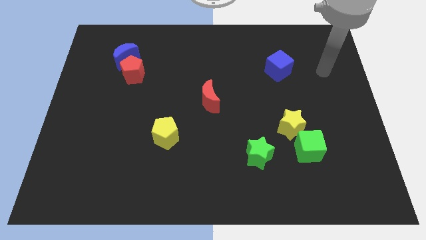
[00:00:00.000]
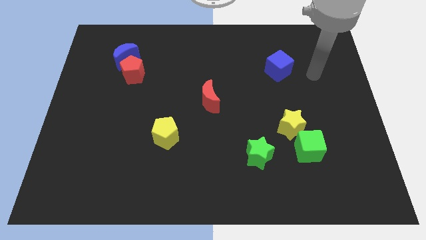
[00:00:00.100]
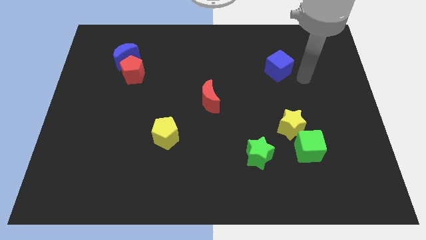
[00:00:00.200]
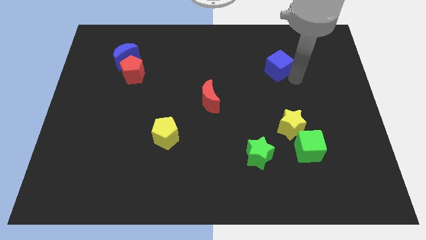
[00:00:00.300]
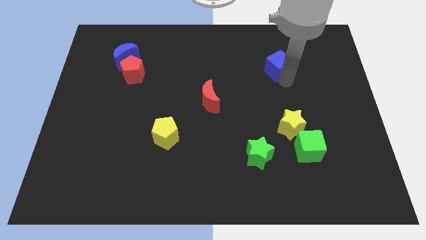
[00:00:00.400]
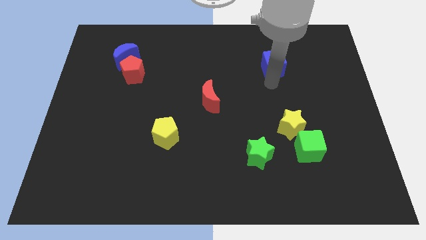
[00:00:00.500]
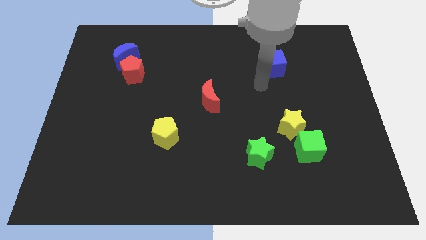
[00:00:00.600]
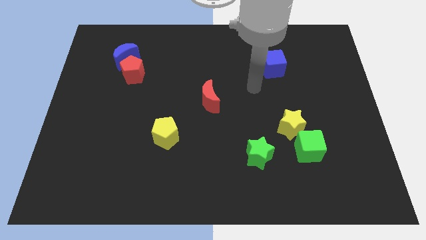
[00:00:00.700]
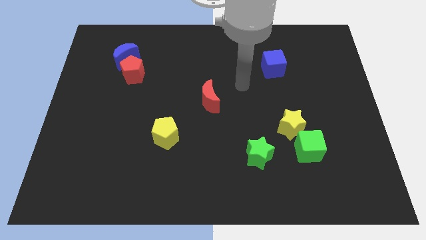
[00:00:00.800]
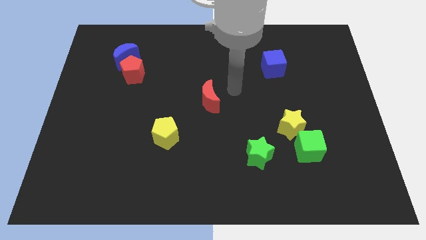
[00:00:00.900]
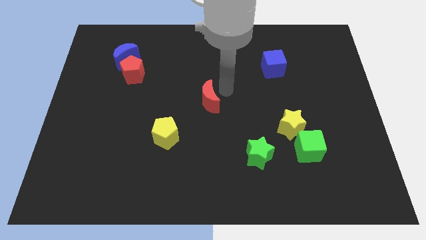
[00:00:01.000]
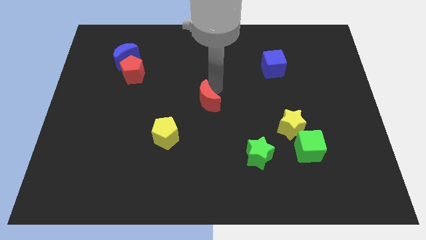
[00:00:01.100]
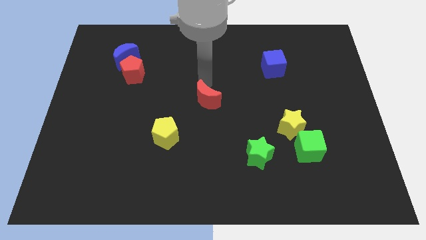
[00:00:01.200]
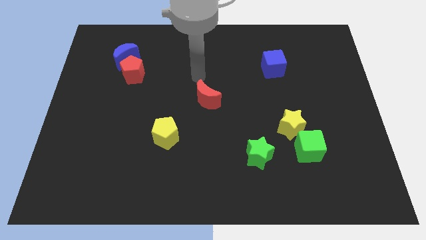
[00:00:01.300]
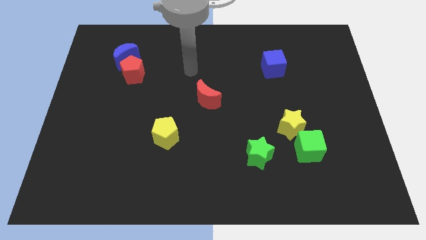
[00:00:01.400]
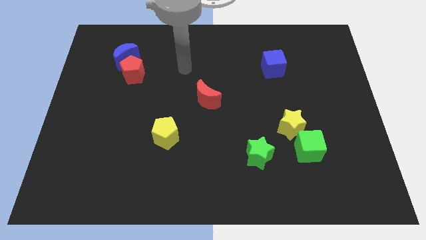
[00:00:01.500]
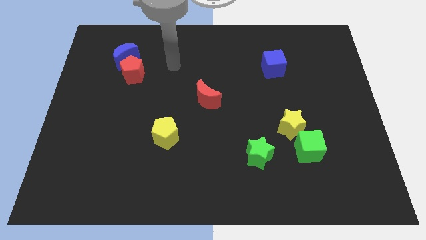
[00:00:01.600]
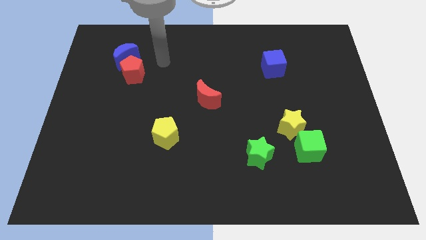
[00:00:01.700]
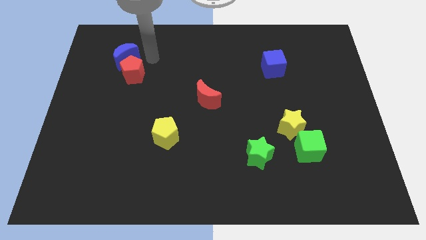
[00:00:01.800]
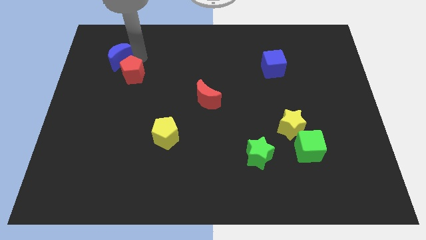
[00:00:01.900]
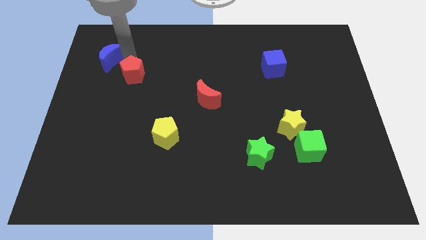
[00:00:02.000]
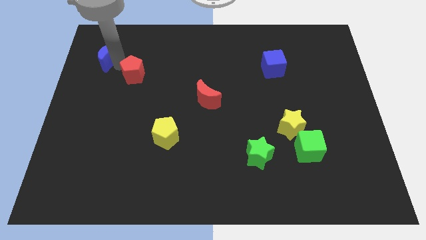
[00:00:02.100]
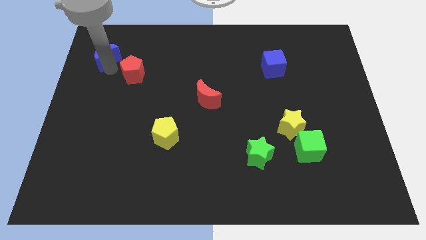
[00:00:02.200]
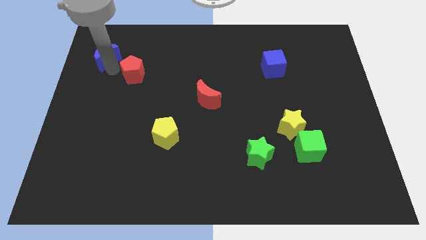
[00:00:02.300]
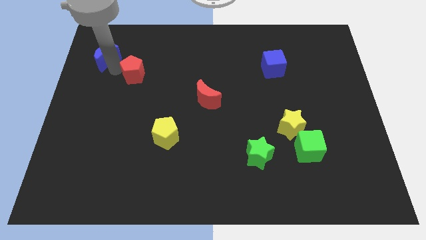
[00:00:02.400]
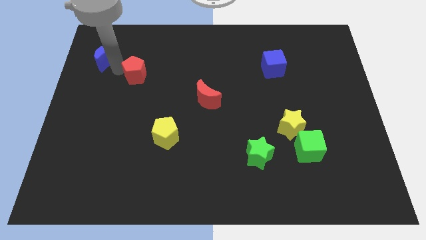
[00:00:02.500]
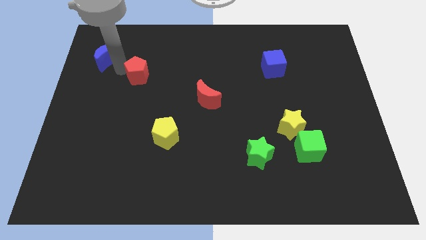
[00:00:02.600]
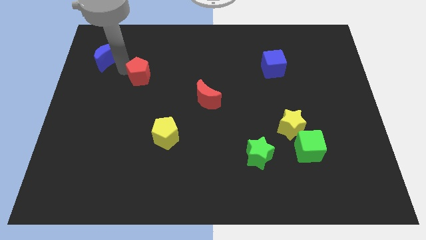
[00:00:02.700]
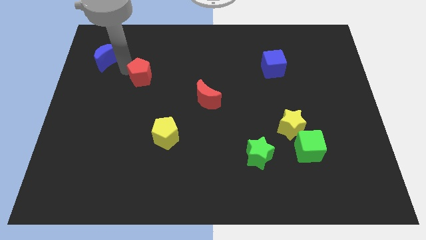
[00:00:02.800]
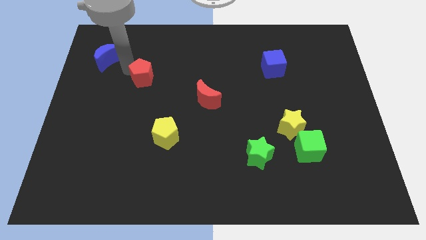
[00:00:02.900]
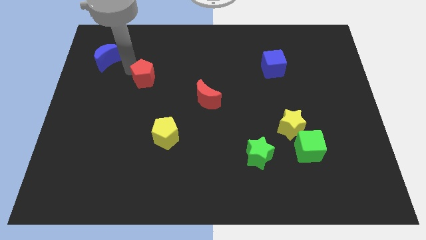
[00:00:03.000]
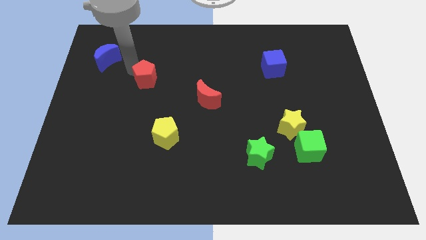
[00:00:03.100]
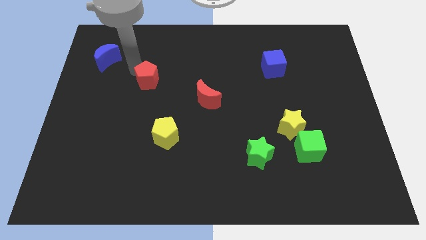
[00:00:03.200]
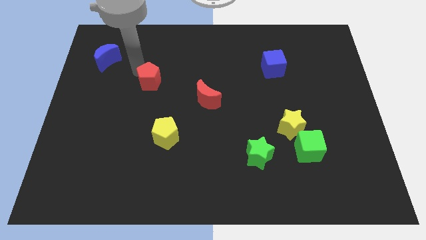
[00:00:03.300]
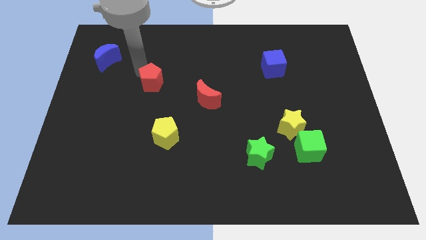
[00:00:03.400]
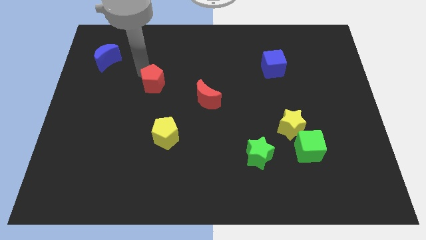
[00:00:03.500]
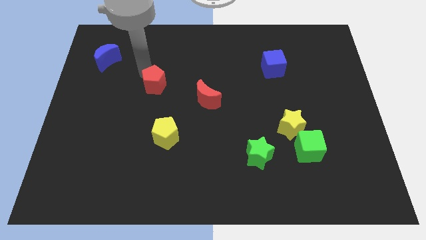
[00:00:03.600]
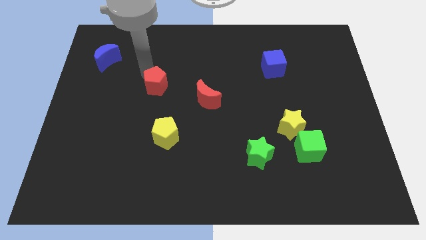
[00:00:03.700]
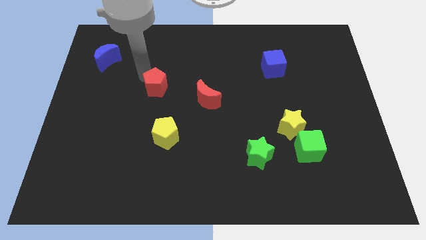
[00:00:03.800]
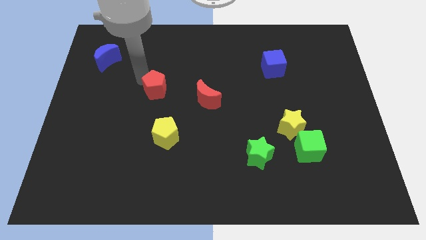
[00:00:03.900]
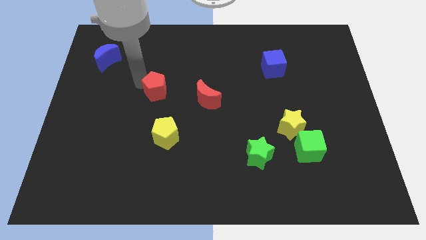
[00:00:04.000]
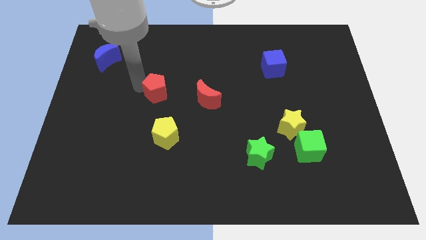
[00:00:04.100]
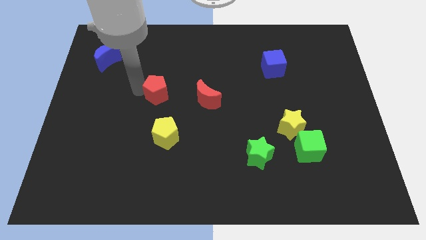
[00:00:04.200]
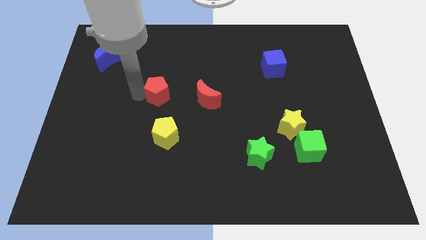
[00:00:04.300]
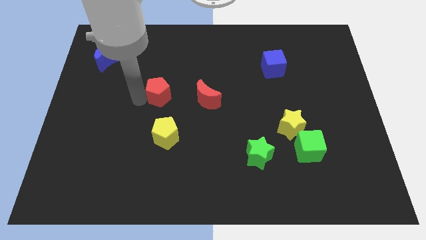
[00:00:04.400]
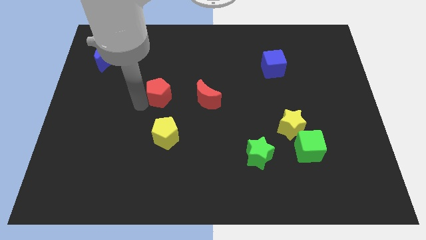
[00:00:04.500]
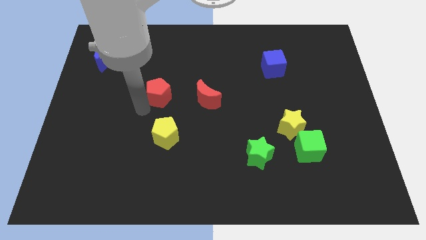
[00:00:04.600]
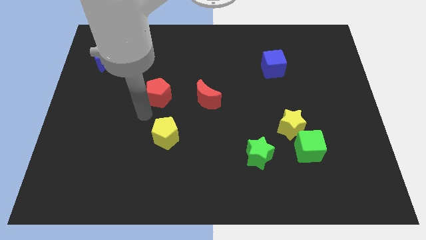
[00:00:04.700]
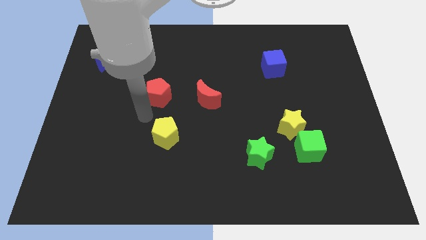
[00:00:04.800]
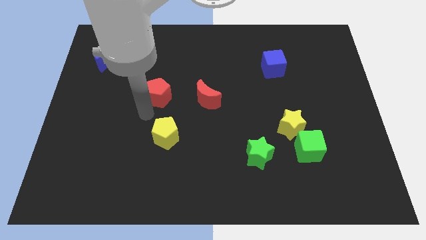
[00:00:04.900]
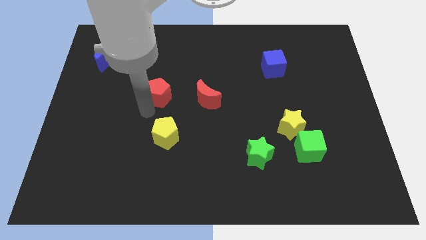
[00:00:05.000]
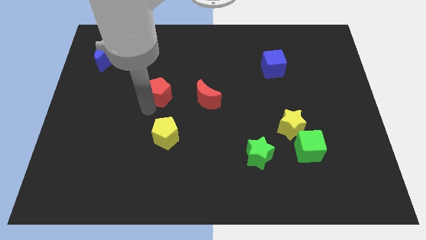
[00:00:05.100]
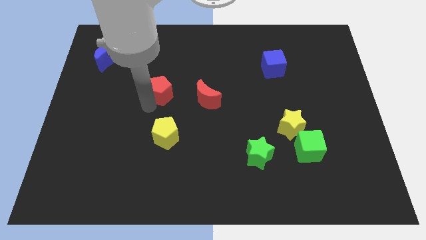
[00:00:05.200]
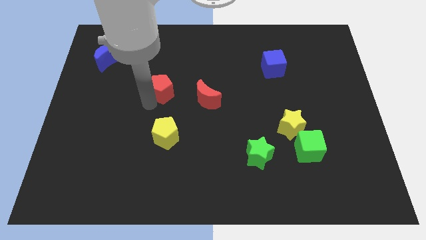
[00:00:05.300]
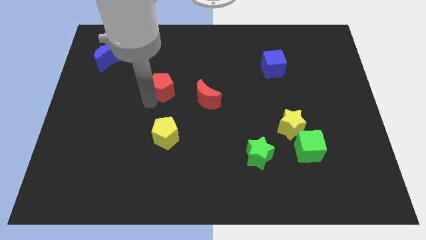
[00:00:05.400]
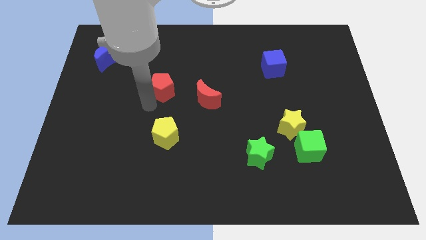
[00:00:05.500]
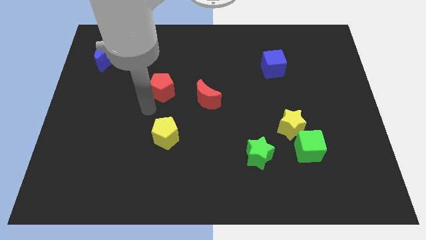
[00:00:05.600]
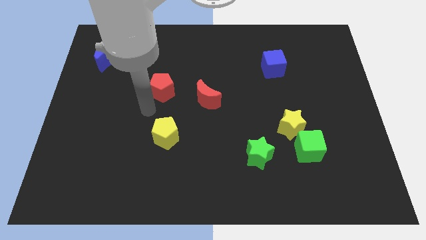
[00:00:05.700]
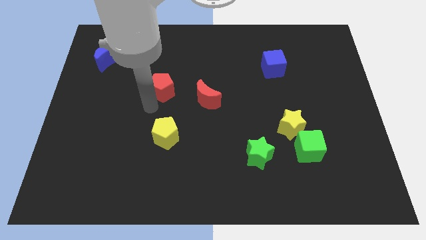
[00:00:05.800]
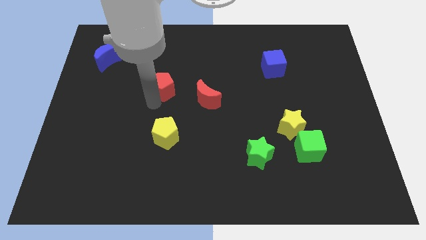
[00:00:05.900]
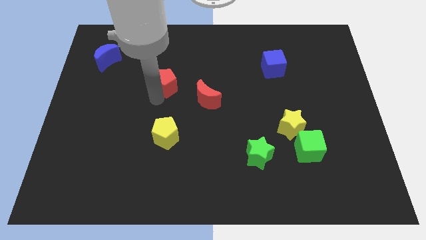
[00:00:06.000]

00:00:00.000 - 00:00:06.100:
slide the red pentagon to the top left of the red moon

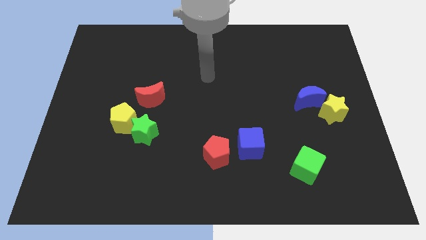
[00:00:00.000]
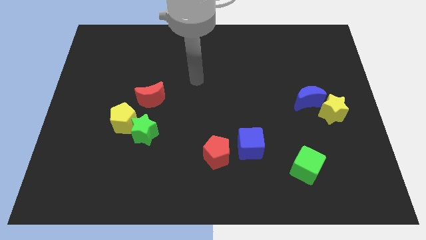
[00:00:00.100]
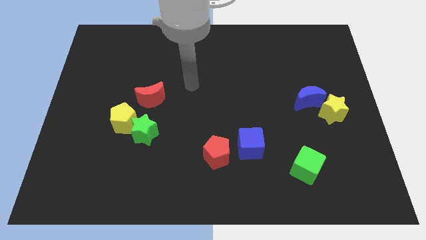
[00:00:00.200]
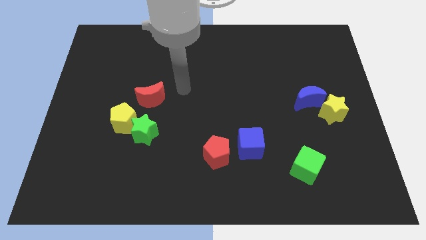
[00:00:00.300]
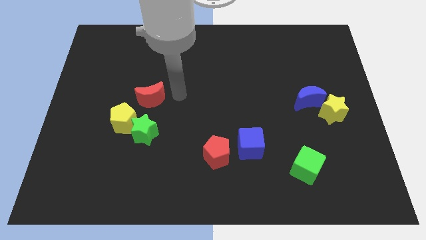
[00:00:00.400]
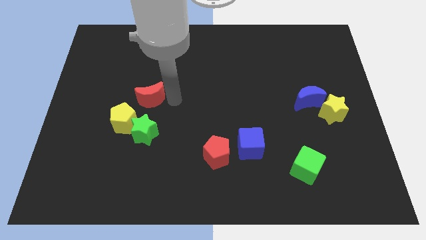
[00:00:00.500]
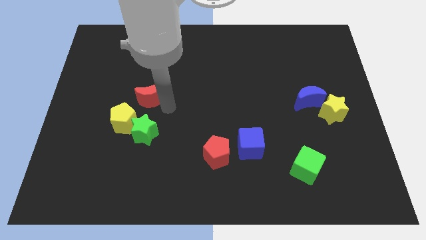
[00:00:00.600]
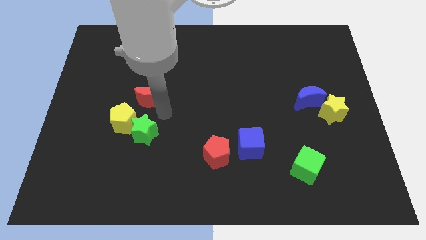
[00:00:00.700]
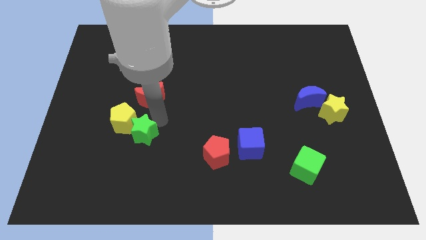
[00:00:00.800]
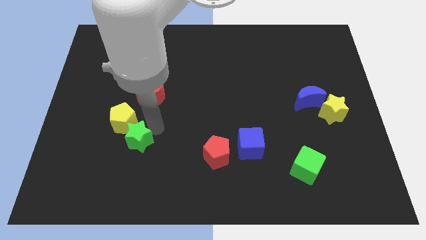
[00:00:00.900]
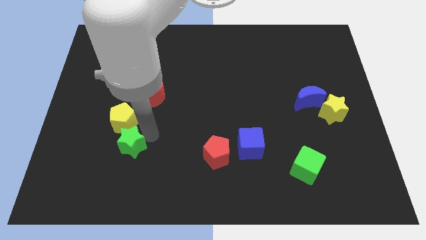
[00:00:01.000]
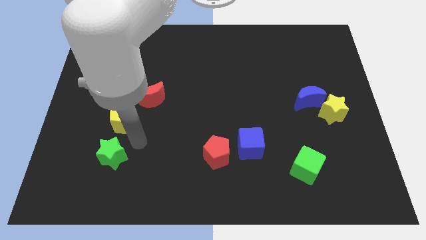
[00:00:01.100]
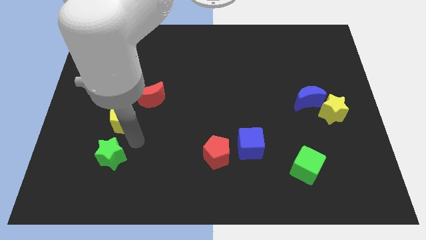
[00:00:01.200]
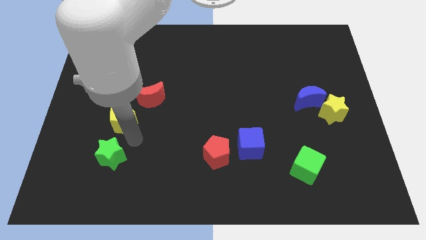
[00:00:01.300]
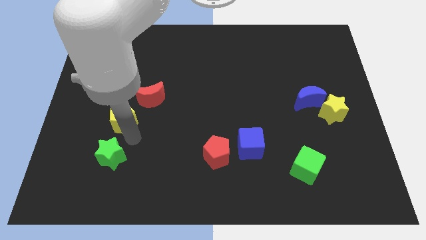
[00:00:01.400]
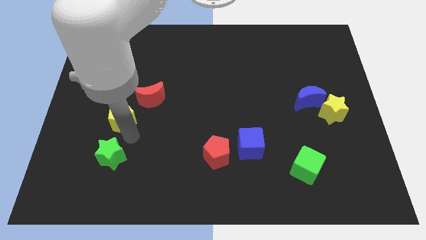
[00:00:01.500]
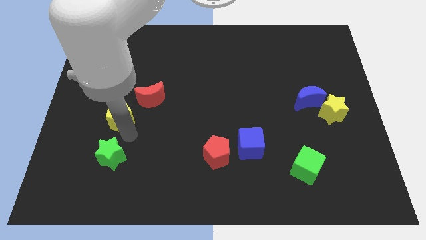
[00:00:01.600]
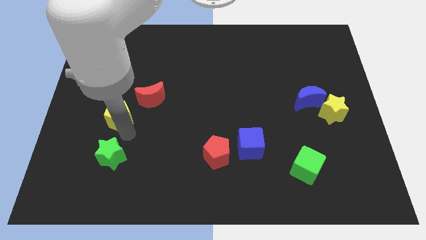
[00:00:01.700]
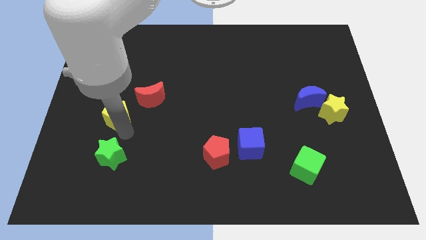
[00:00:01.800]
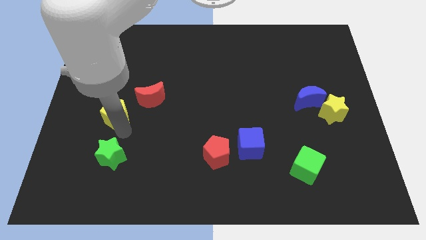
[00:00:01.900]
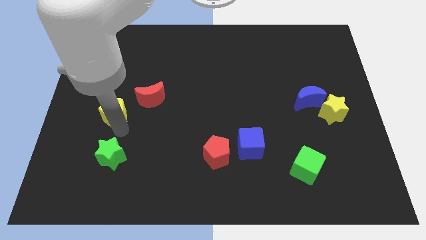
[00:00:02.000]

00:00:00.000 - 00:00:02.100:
push the yellow pentagon to the left side of the red moon
